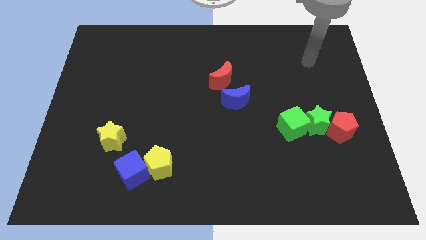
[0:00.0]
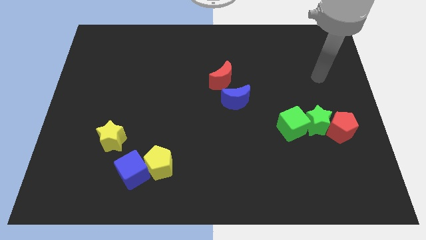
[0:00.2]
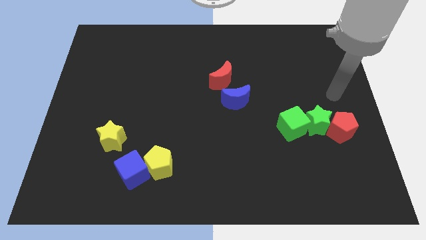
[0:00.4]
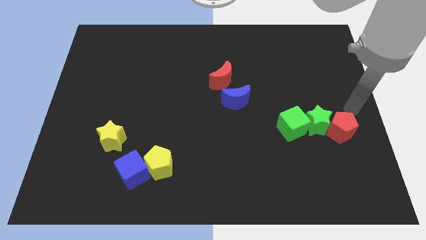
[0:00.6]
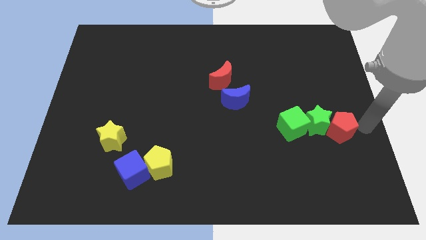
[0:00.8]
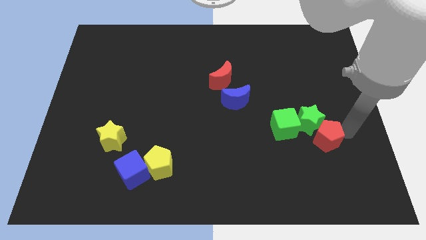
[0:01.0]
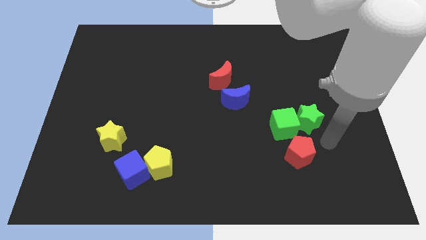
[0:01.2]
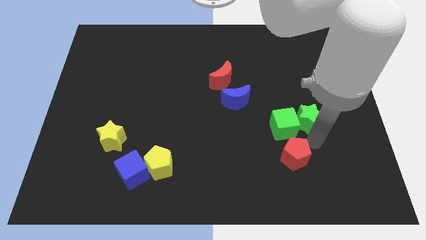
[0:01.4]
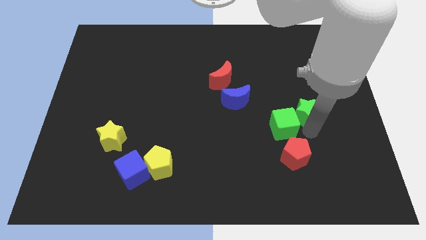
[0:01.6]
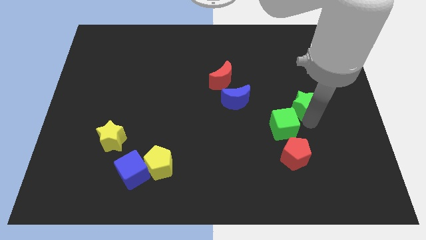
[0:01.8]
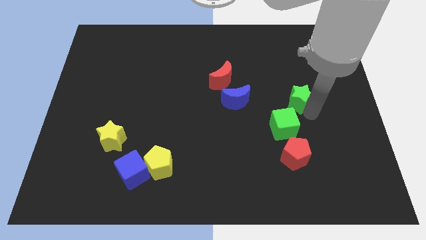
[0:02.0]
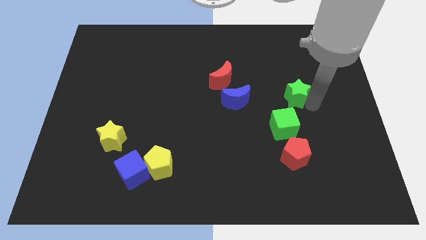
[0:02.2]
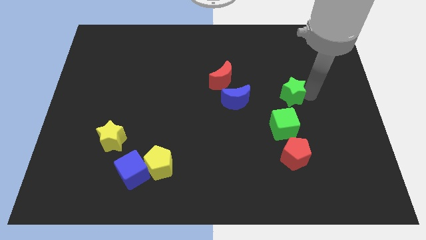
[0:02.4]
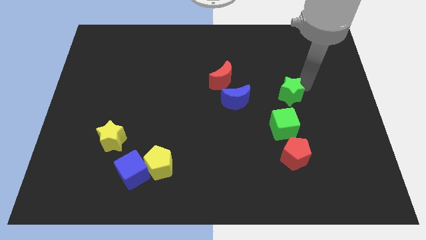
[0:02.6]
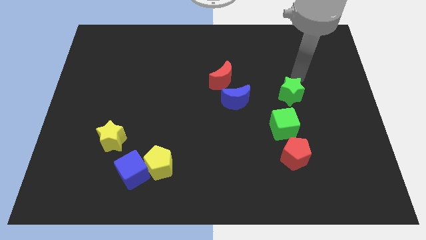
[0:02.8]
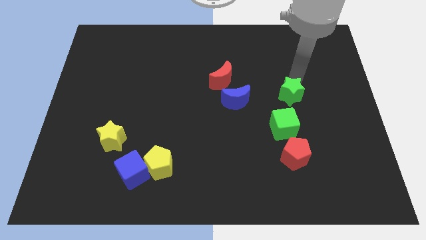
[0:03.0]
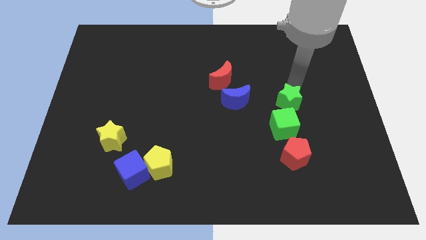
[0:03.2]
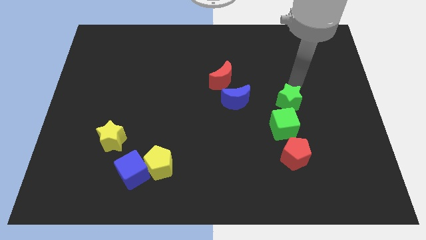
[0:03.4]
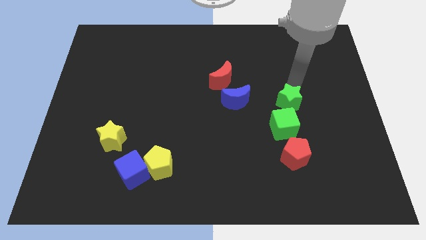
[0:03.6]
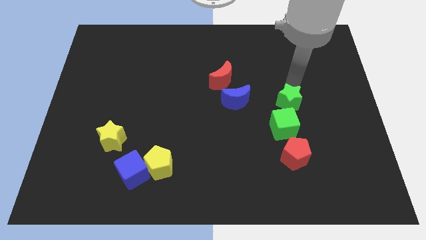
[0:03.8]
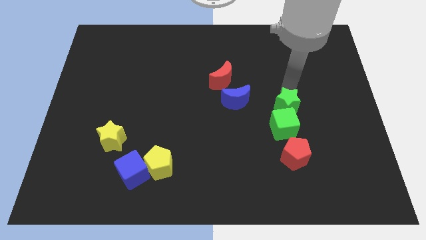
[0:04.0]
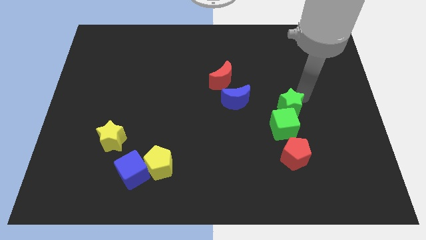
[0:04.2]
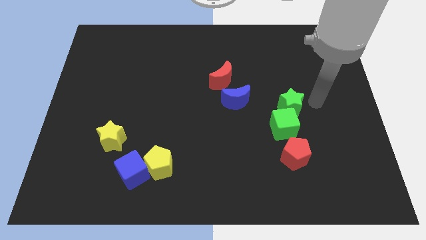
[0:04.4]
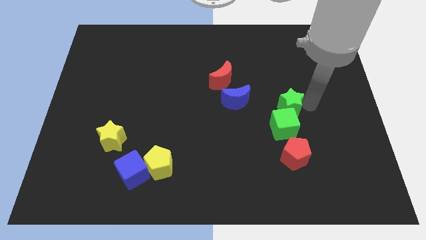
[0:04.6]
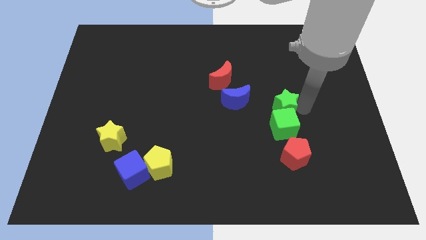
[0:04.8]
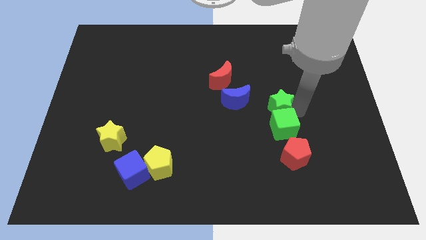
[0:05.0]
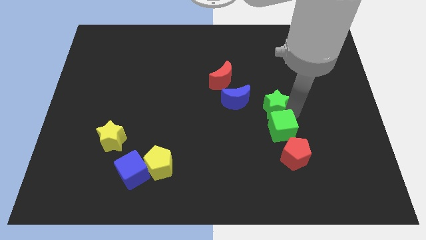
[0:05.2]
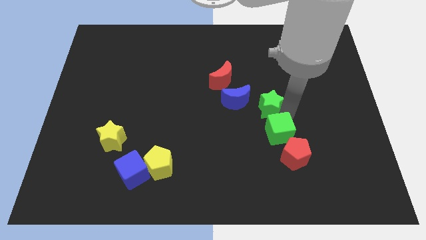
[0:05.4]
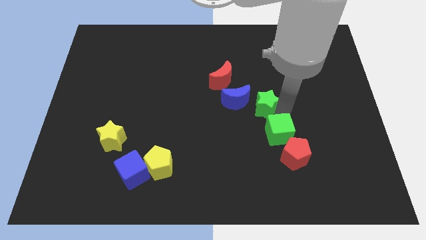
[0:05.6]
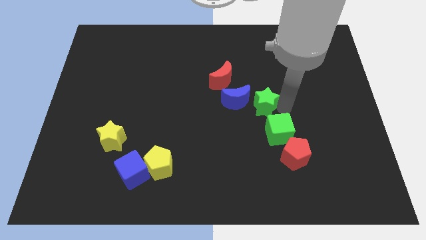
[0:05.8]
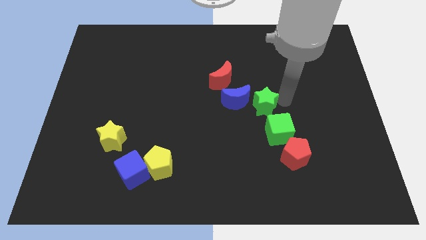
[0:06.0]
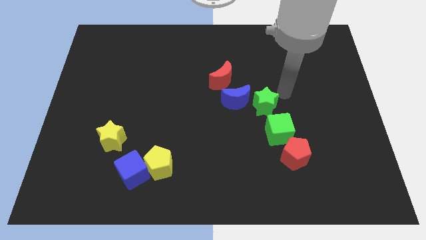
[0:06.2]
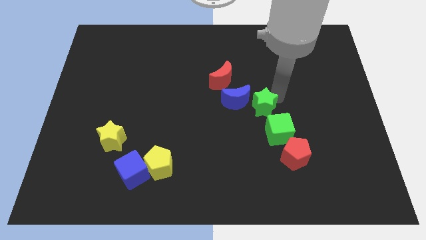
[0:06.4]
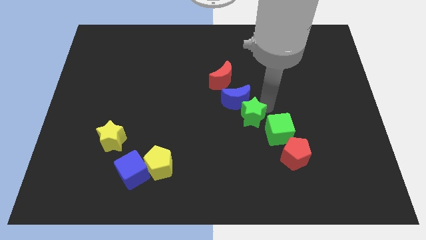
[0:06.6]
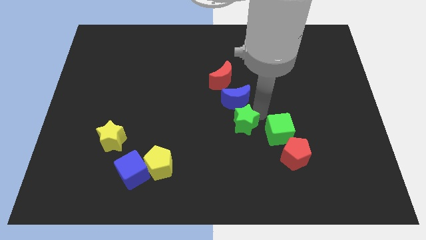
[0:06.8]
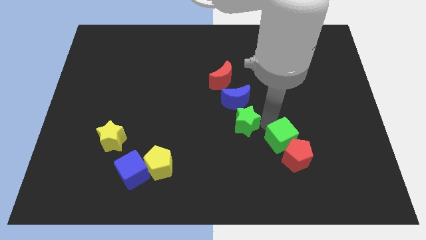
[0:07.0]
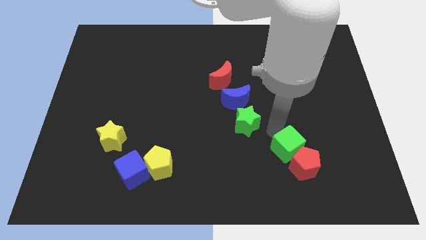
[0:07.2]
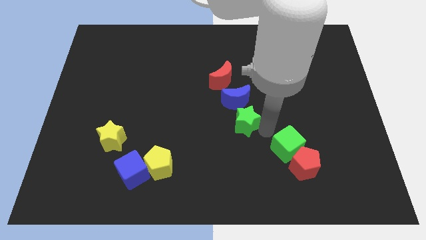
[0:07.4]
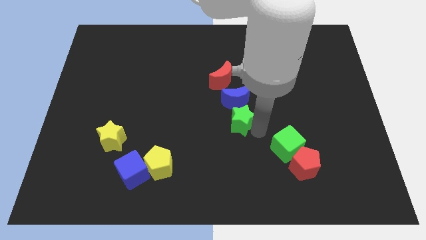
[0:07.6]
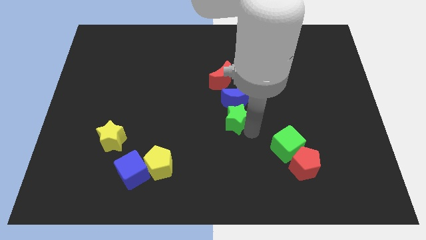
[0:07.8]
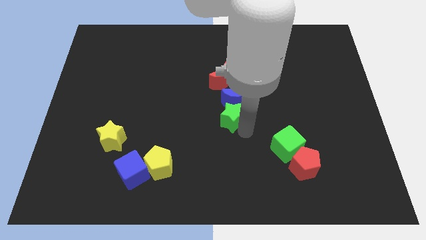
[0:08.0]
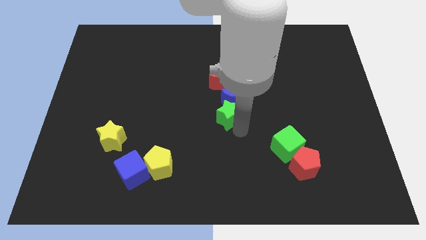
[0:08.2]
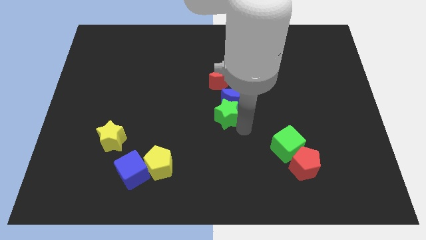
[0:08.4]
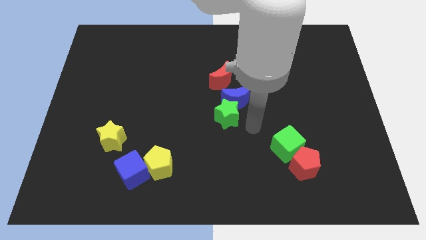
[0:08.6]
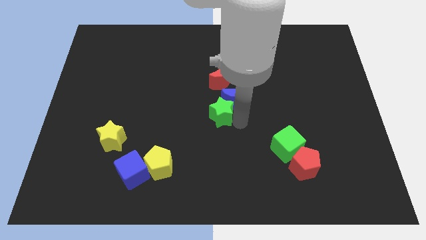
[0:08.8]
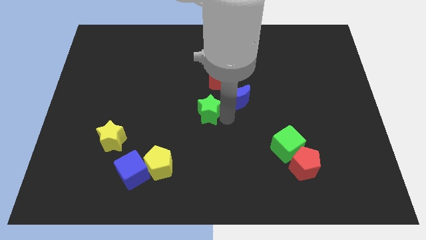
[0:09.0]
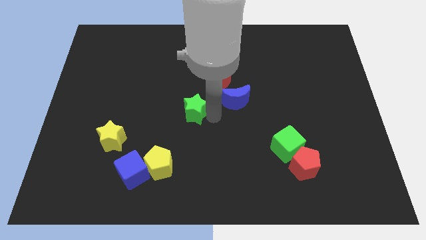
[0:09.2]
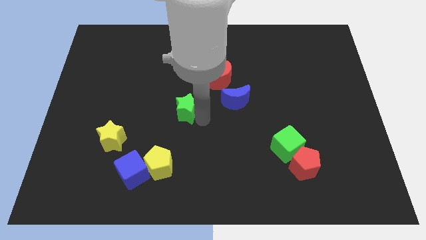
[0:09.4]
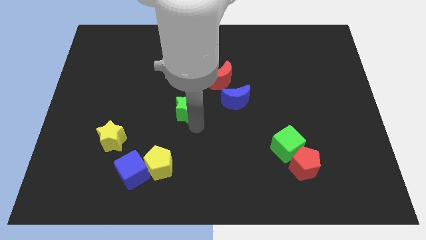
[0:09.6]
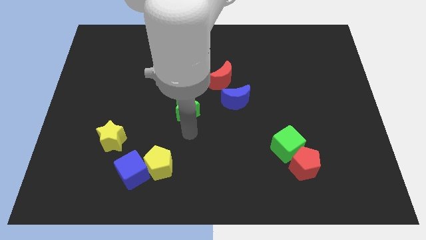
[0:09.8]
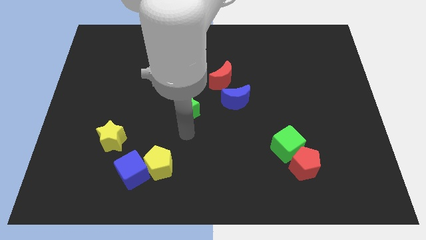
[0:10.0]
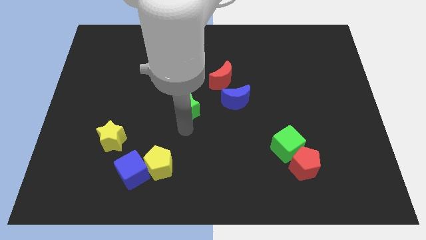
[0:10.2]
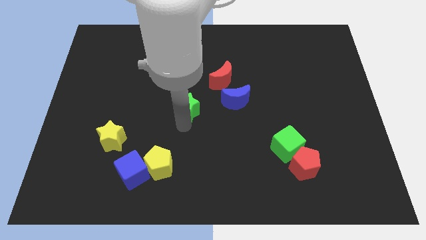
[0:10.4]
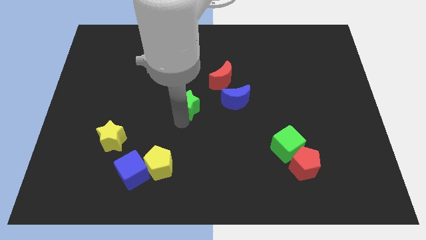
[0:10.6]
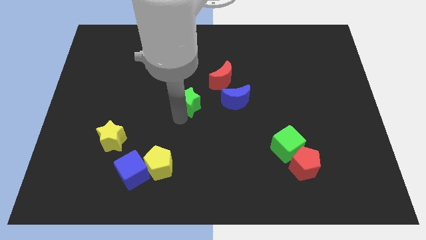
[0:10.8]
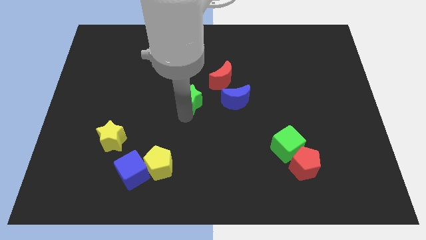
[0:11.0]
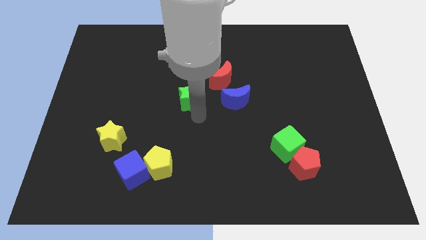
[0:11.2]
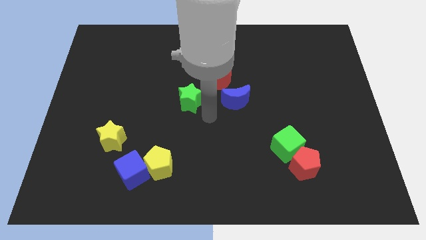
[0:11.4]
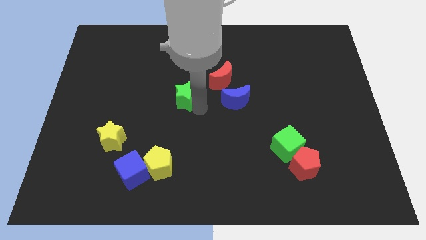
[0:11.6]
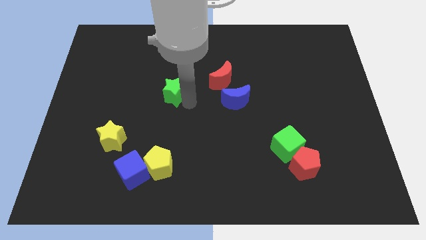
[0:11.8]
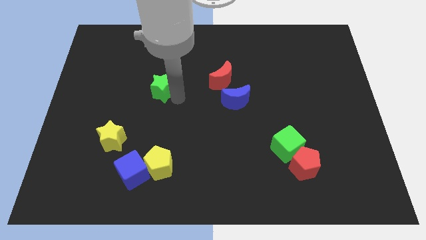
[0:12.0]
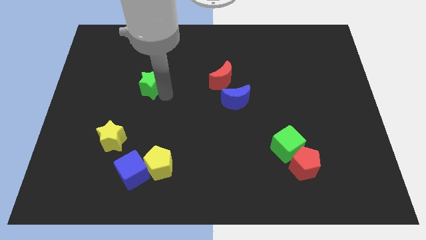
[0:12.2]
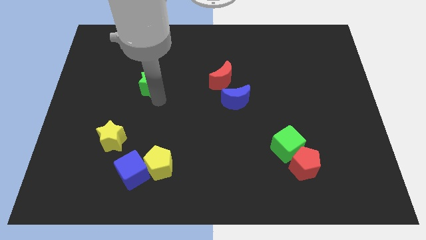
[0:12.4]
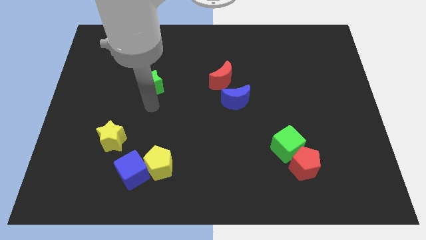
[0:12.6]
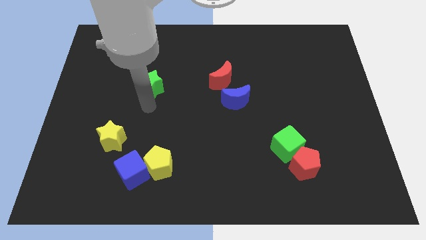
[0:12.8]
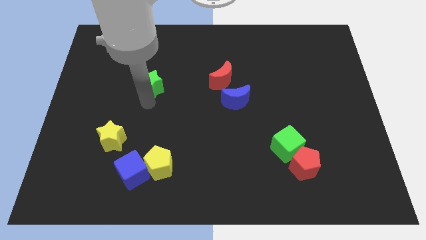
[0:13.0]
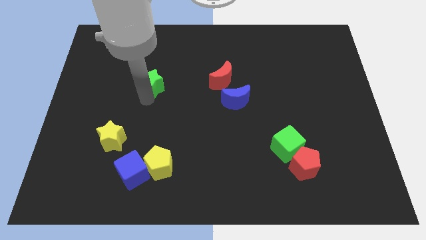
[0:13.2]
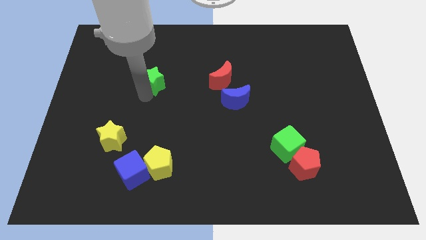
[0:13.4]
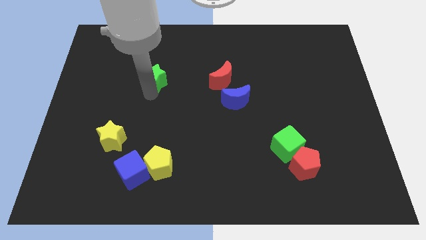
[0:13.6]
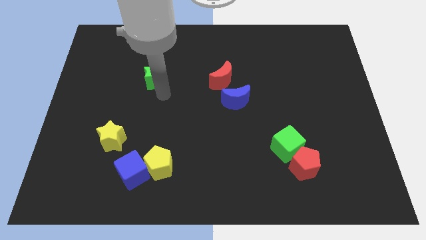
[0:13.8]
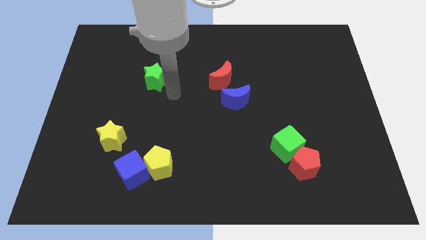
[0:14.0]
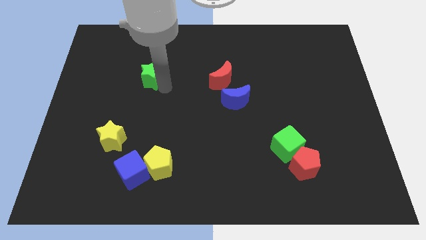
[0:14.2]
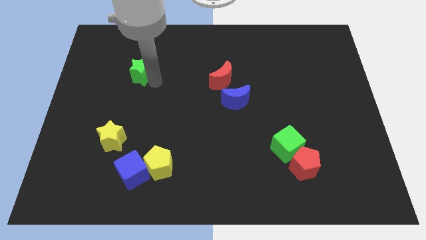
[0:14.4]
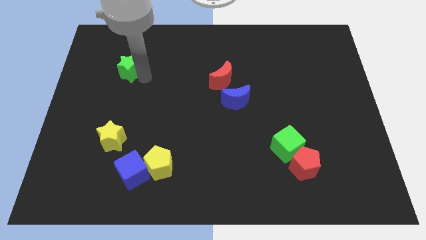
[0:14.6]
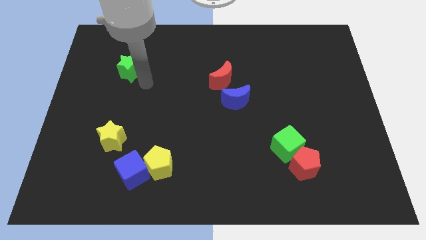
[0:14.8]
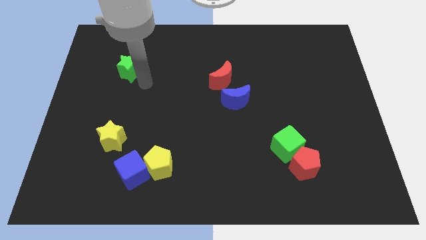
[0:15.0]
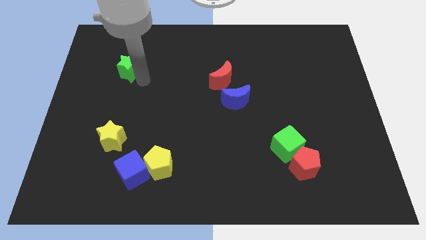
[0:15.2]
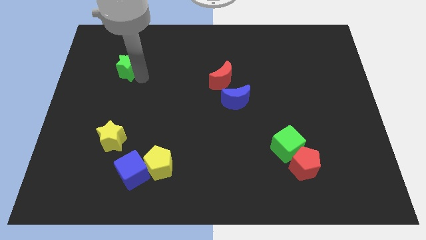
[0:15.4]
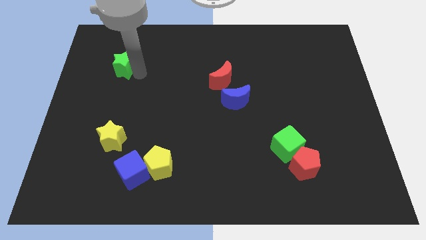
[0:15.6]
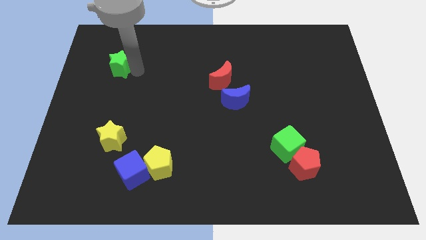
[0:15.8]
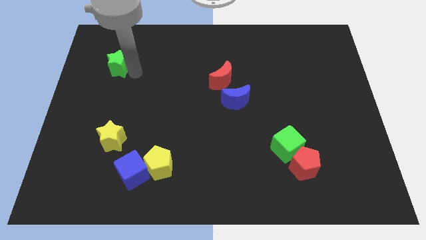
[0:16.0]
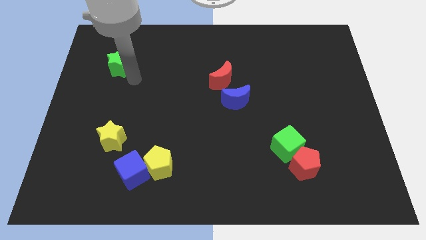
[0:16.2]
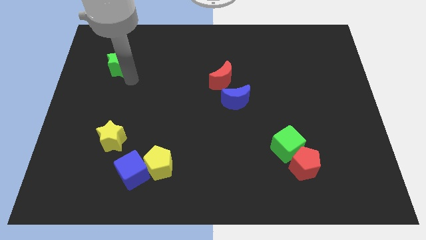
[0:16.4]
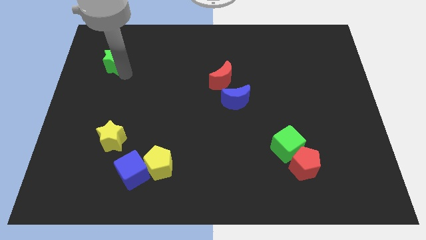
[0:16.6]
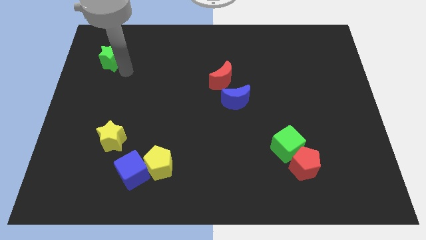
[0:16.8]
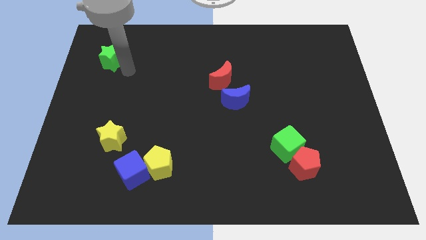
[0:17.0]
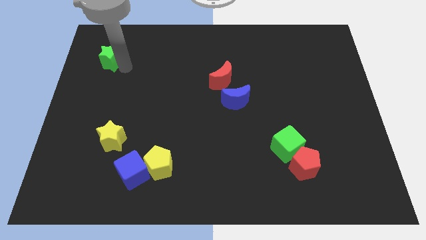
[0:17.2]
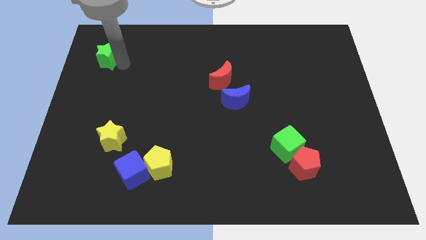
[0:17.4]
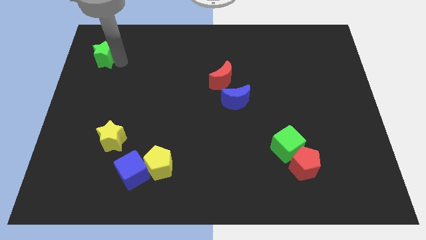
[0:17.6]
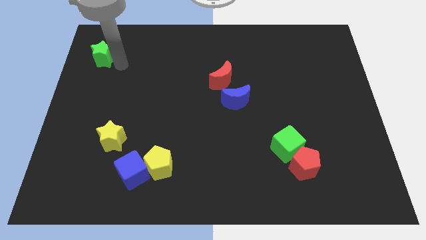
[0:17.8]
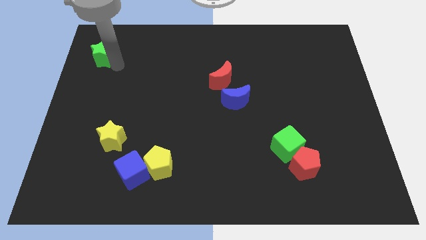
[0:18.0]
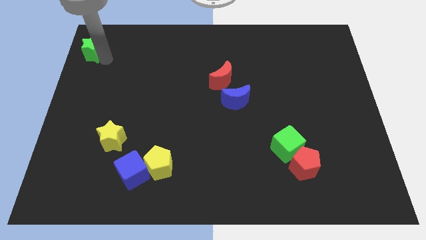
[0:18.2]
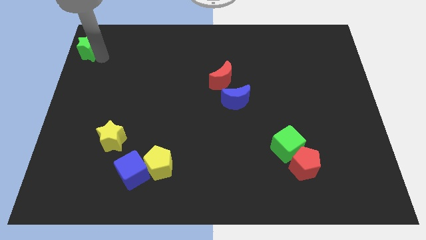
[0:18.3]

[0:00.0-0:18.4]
push the green star to the top left
